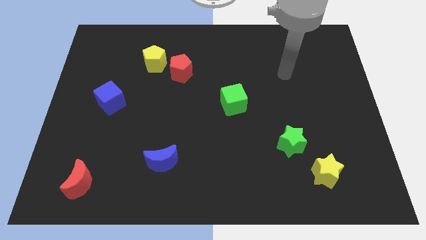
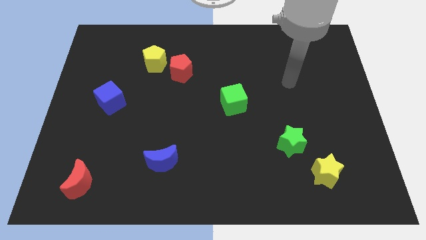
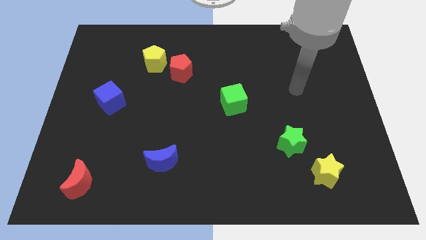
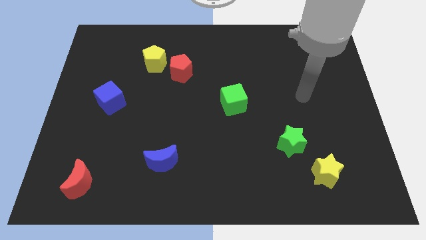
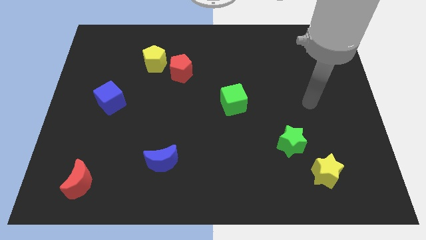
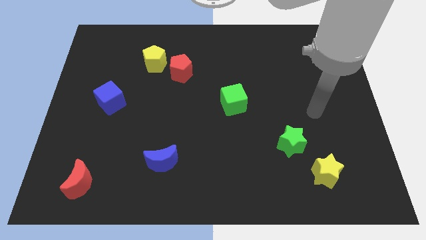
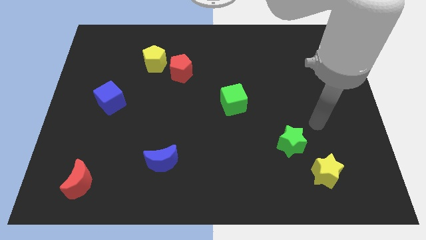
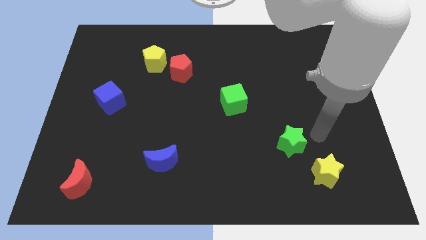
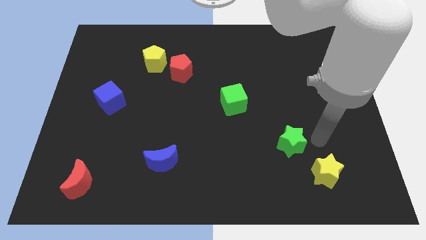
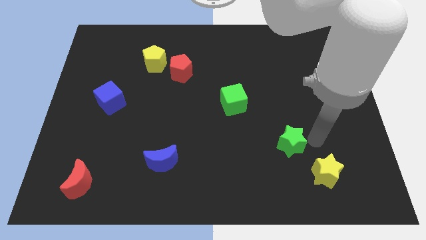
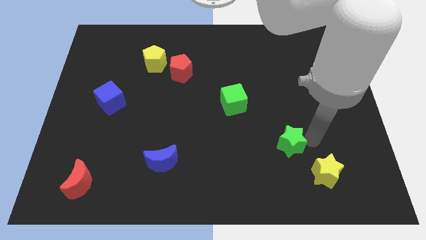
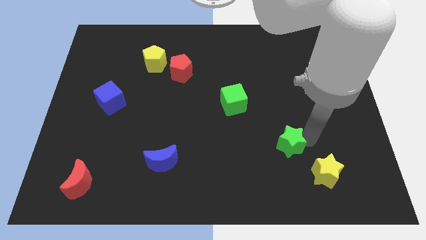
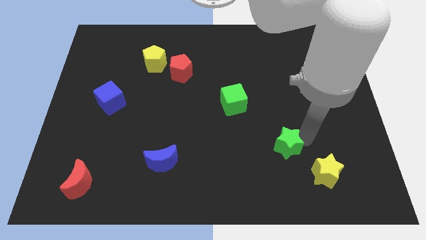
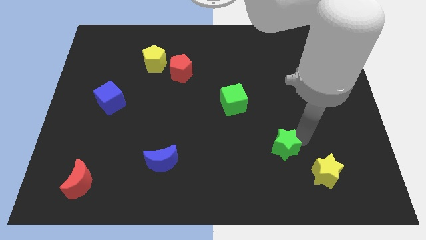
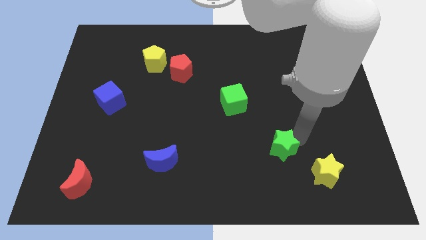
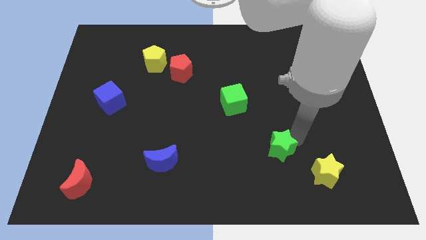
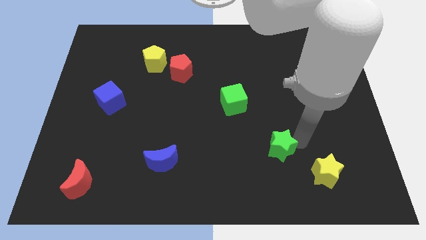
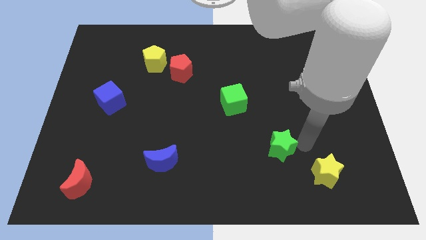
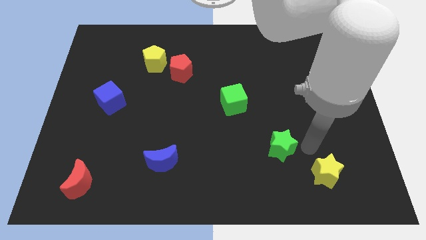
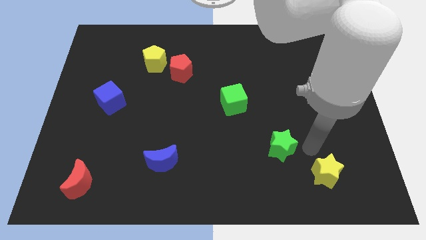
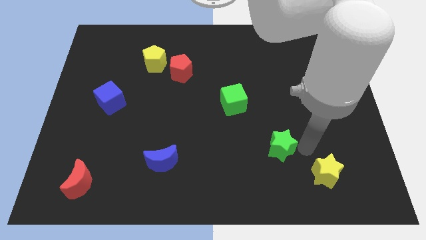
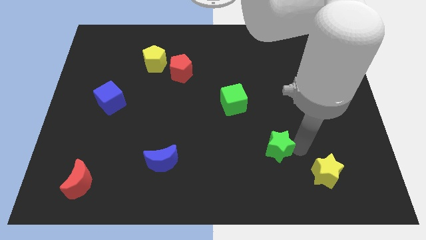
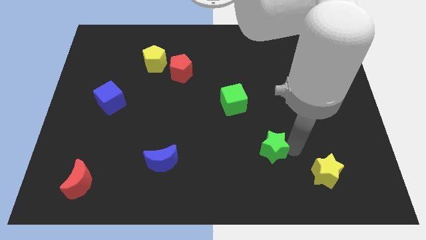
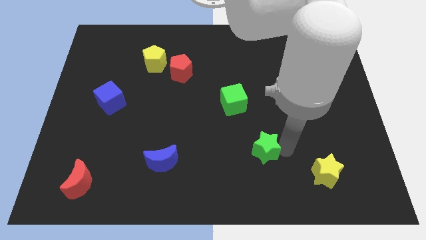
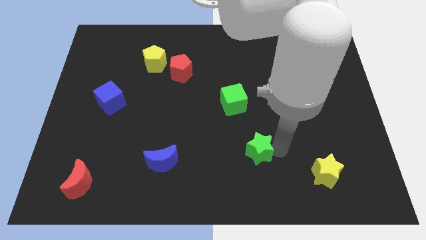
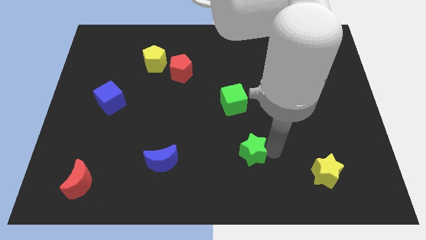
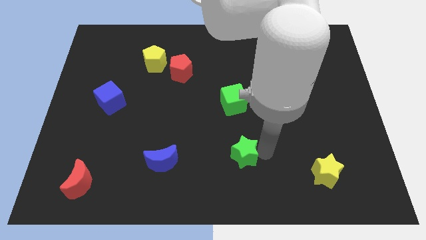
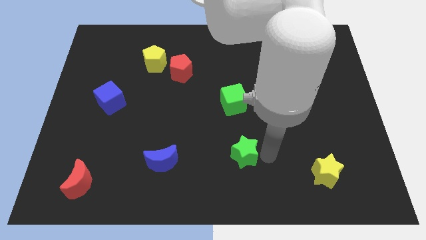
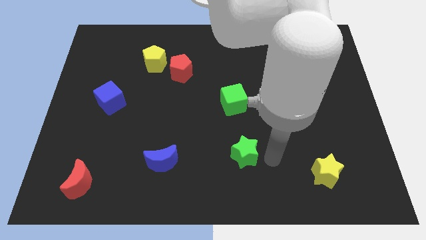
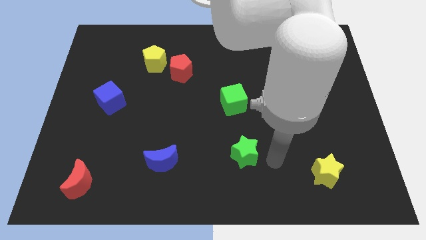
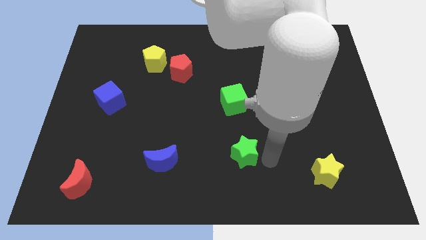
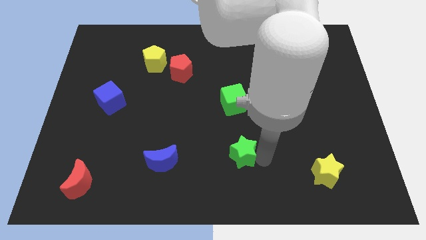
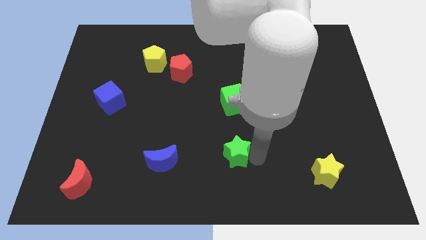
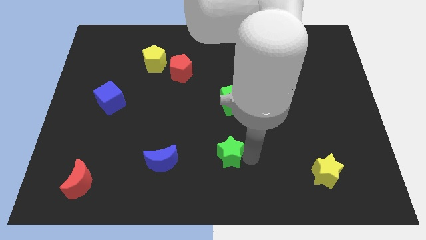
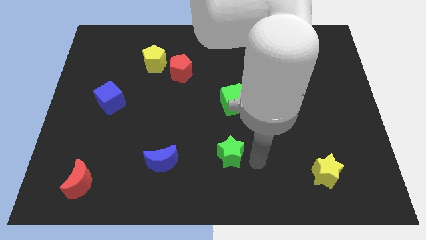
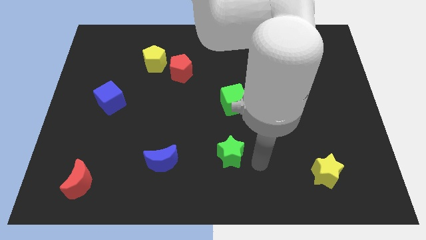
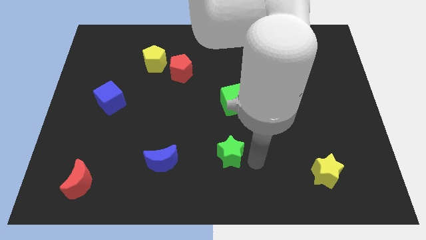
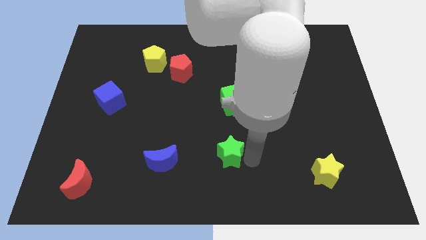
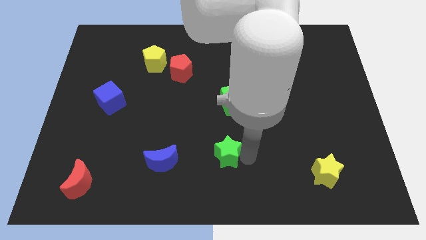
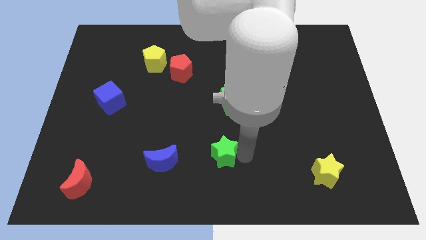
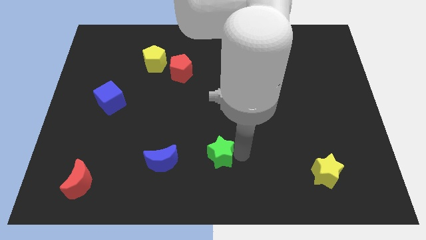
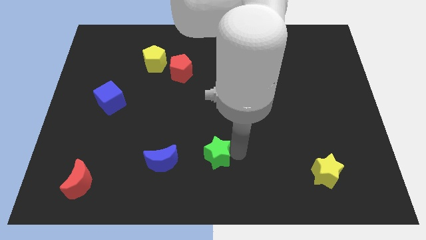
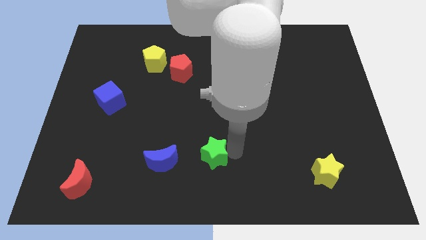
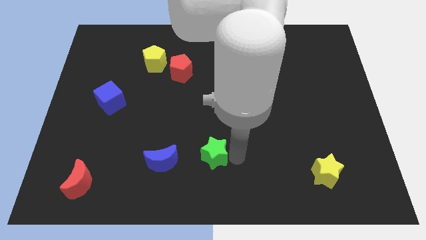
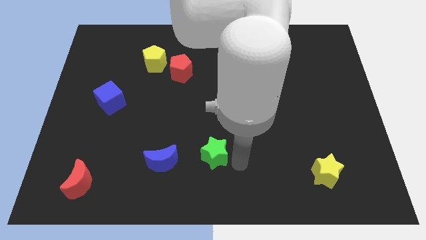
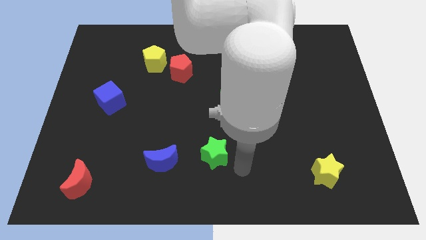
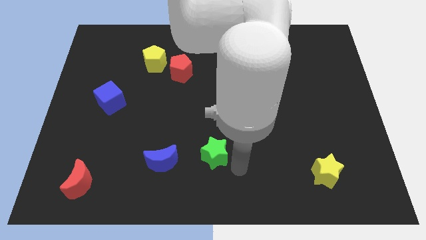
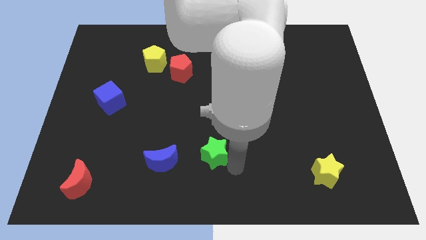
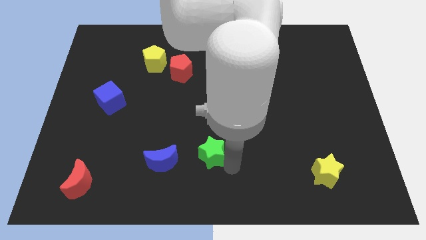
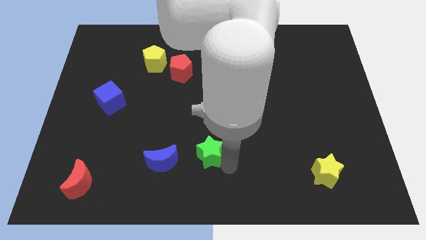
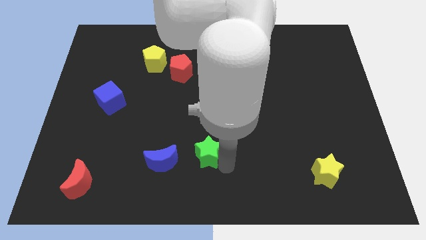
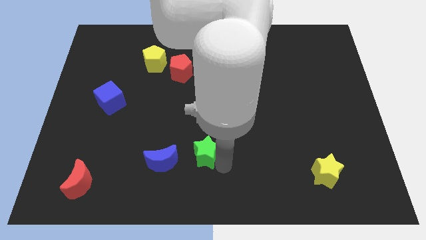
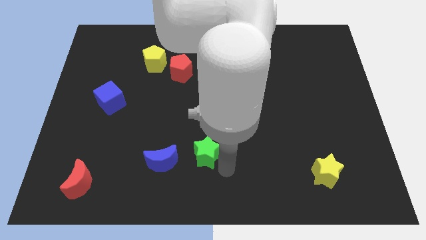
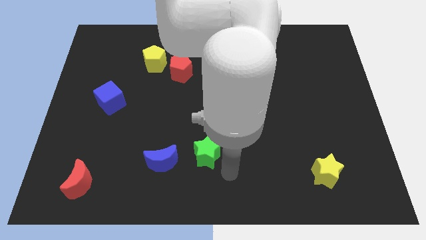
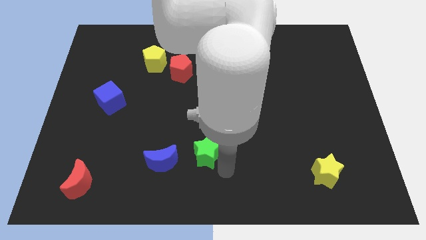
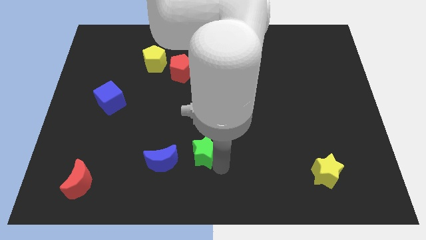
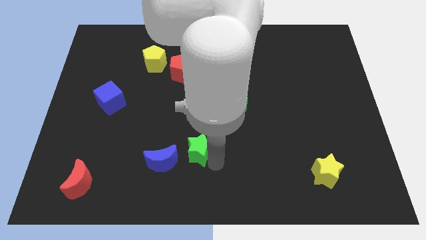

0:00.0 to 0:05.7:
move the green star to the left

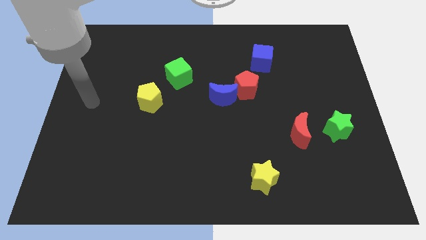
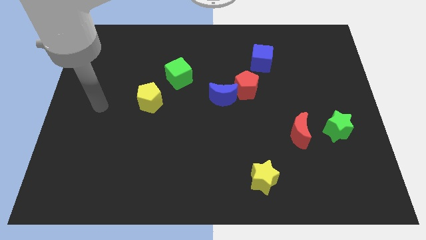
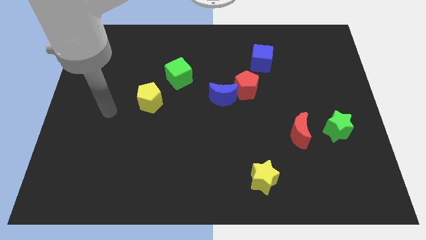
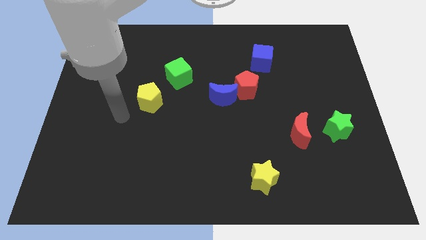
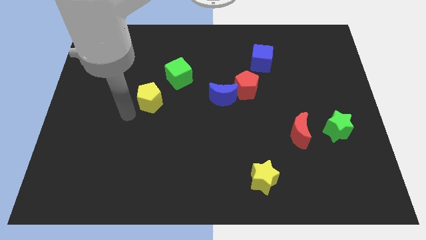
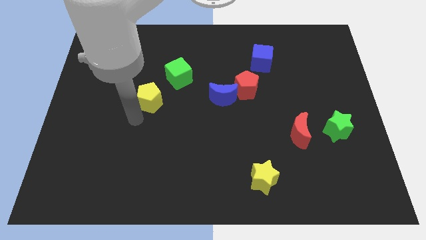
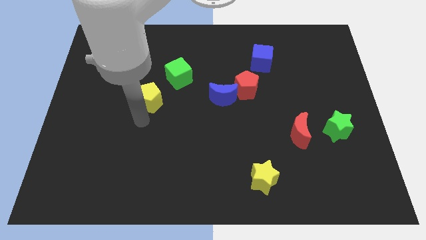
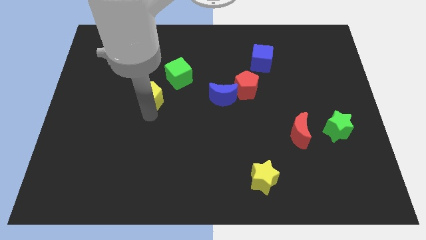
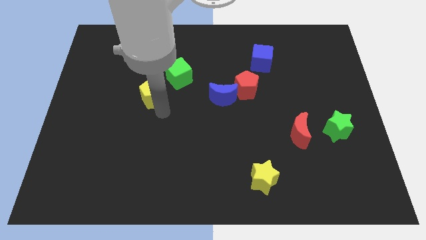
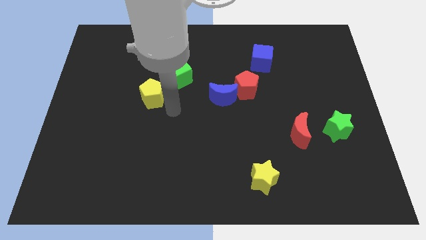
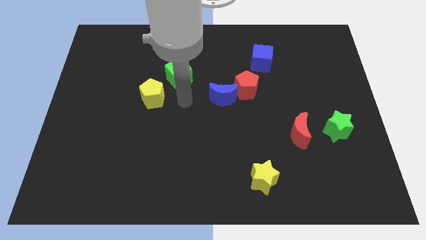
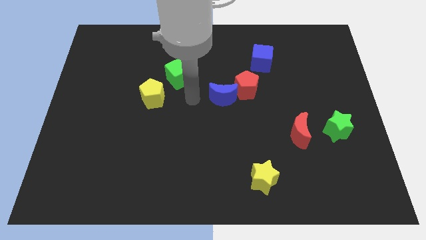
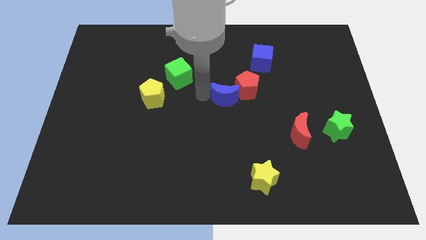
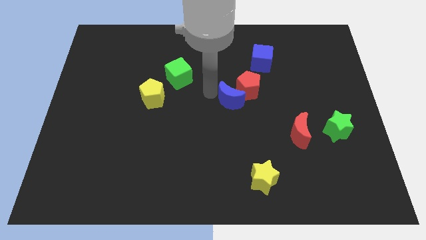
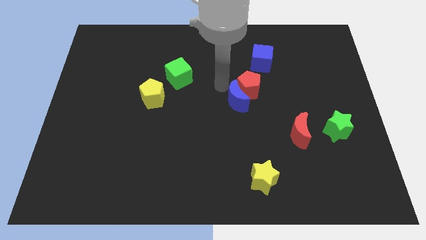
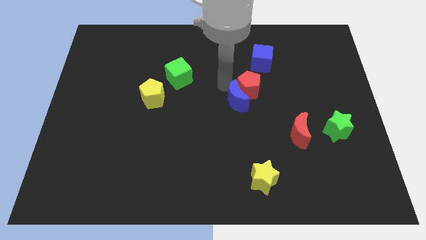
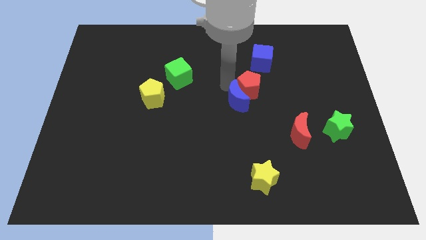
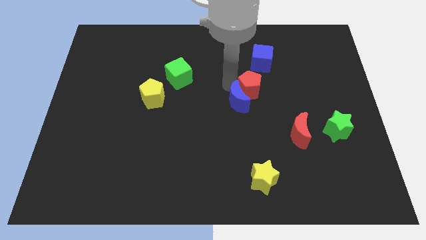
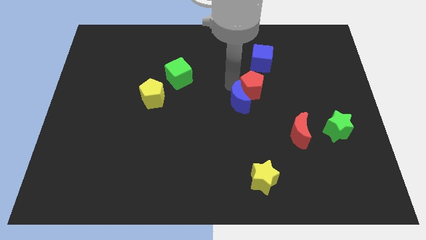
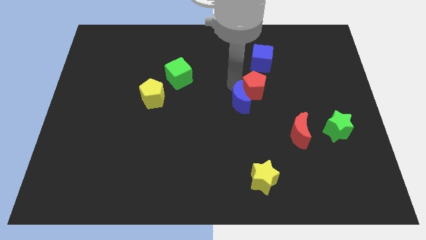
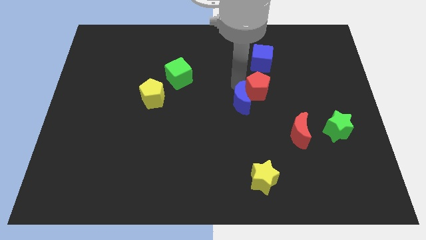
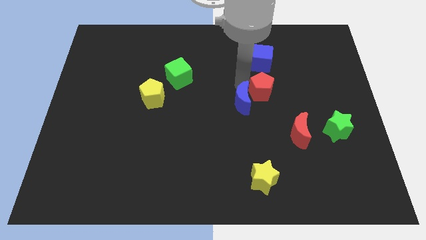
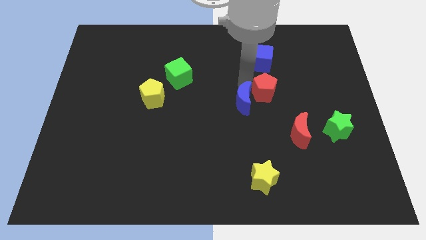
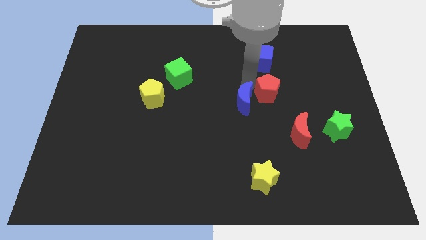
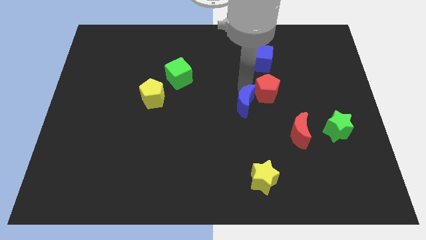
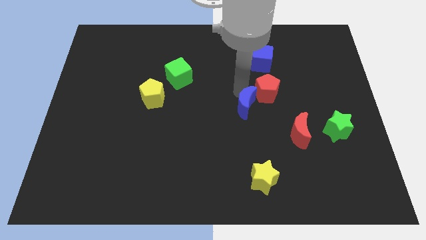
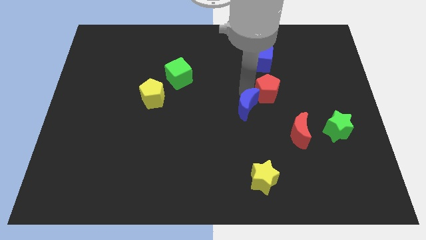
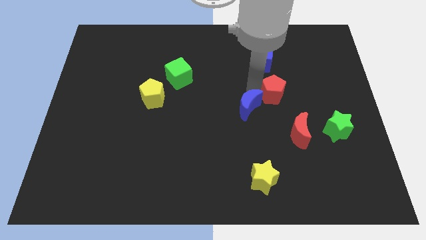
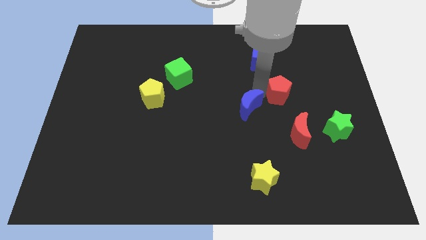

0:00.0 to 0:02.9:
slightly slide the red pentagon to the right
